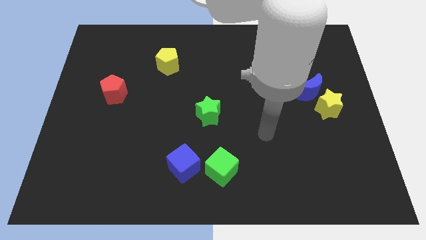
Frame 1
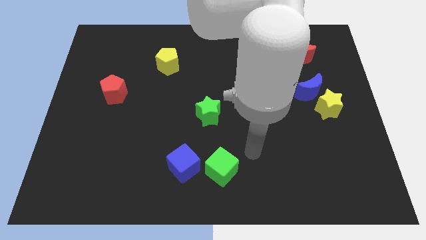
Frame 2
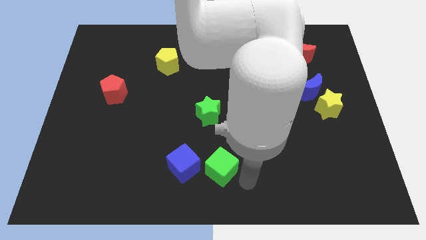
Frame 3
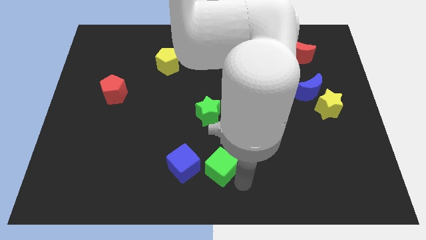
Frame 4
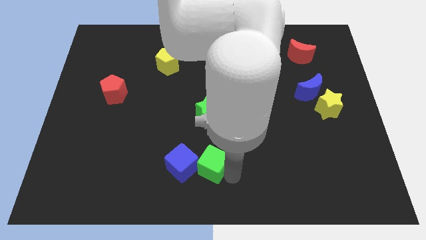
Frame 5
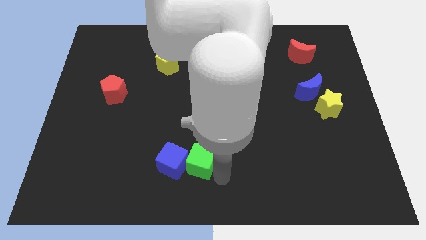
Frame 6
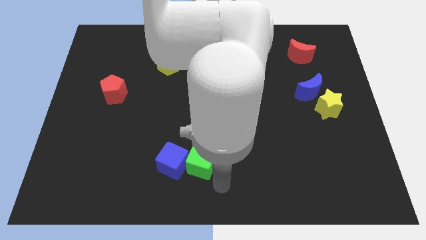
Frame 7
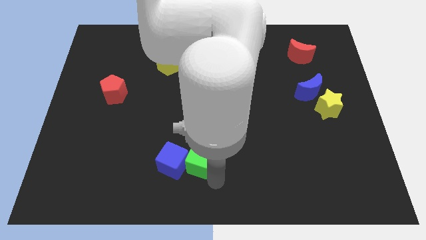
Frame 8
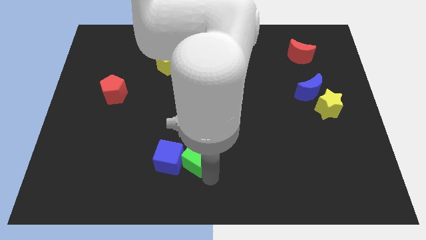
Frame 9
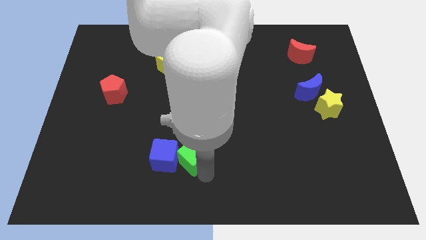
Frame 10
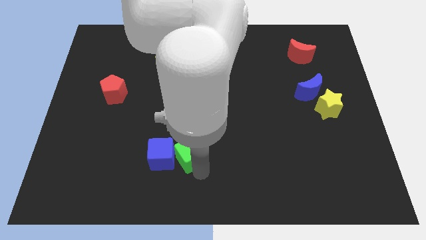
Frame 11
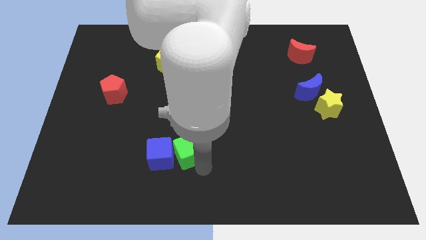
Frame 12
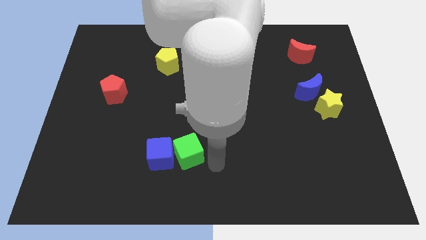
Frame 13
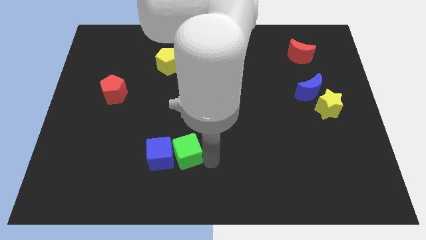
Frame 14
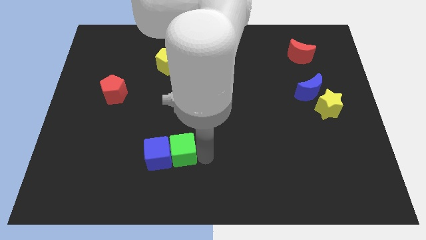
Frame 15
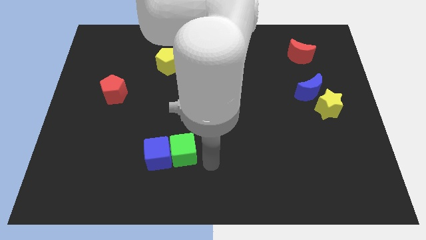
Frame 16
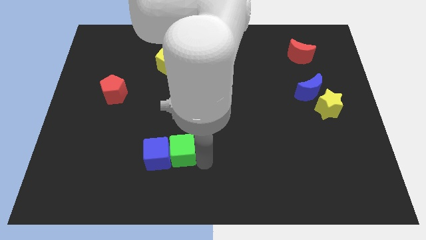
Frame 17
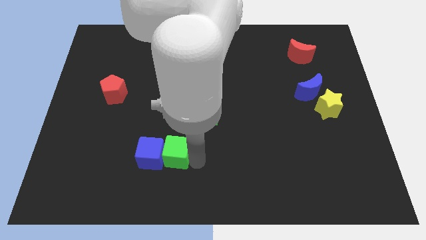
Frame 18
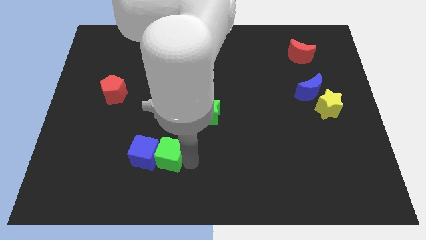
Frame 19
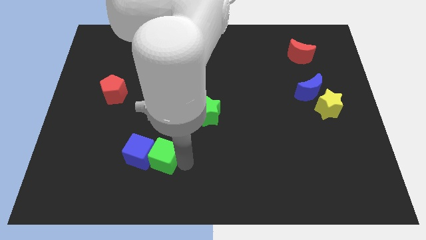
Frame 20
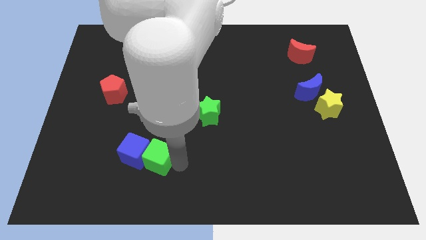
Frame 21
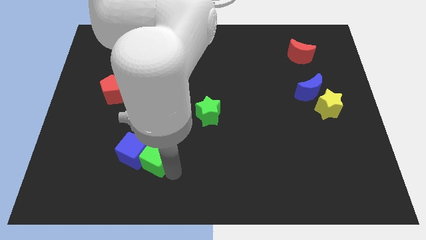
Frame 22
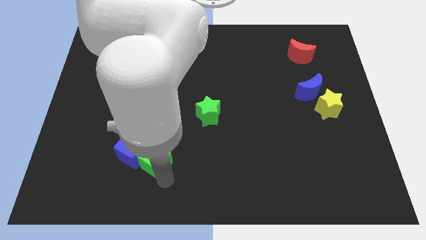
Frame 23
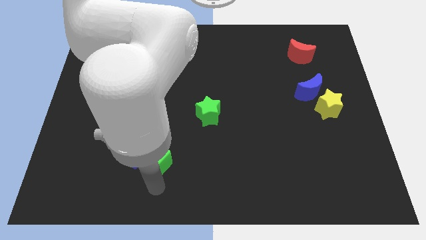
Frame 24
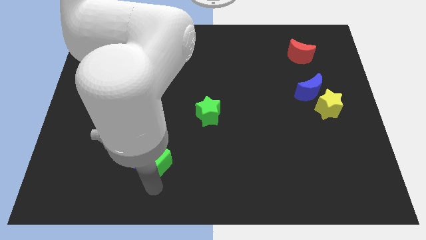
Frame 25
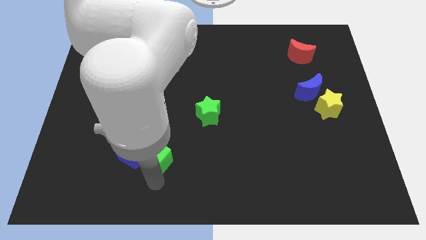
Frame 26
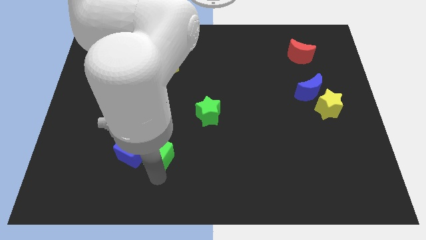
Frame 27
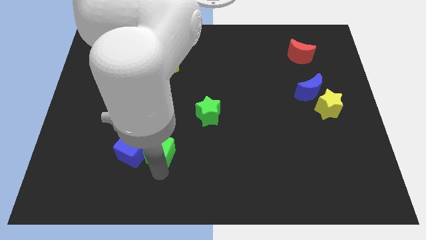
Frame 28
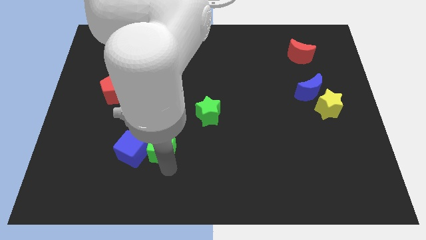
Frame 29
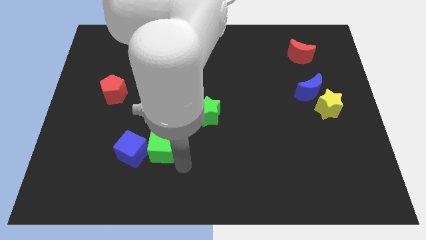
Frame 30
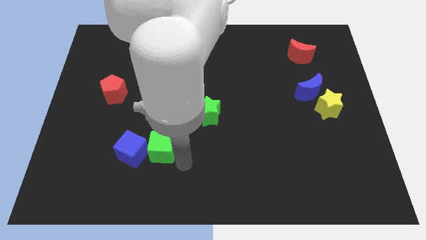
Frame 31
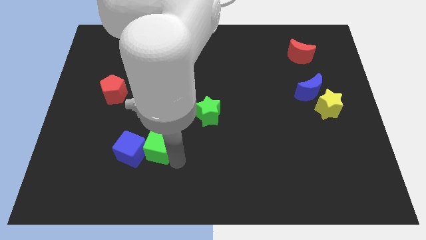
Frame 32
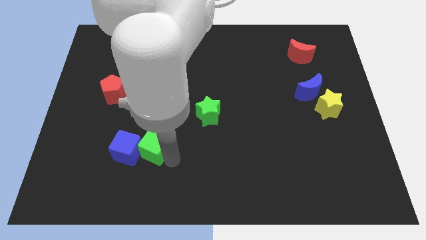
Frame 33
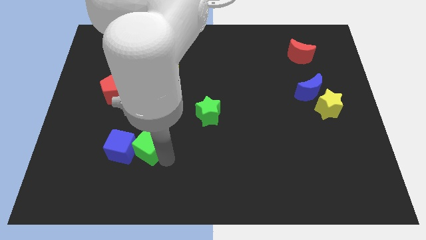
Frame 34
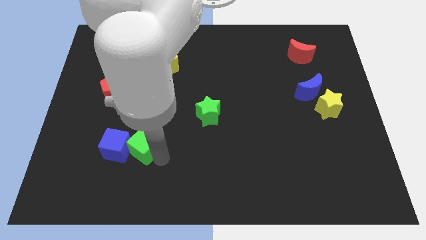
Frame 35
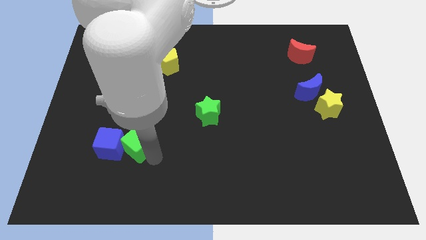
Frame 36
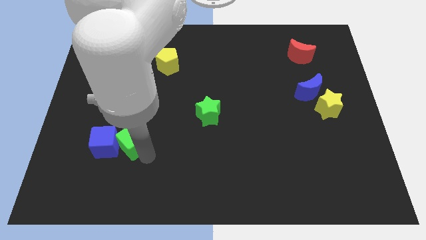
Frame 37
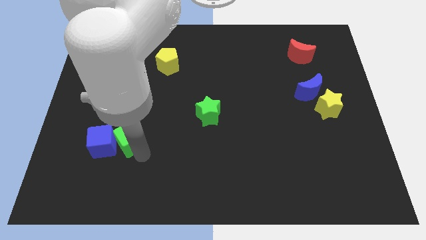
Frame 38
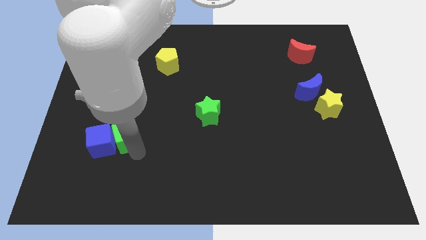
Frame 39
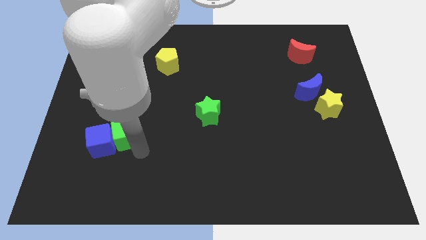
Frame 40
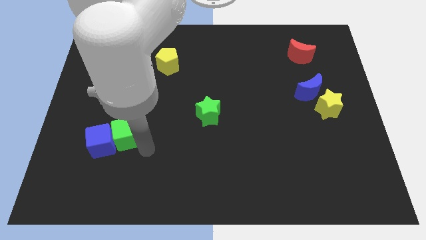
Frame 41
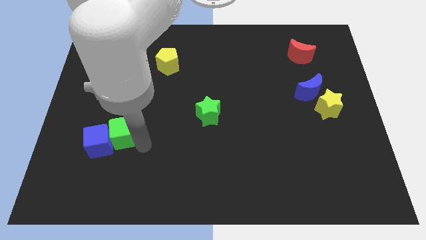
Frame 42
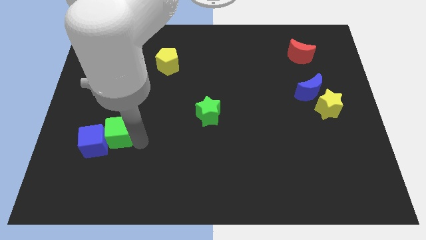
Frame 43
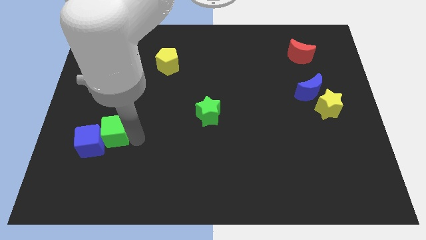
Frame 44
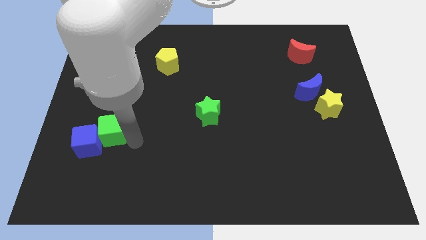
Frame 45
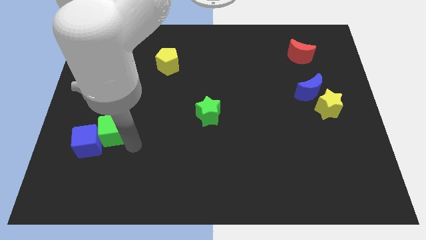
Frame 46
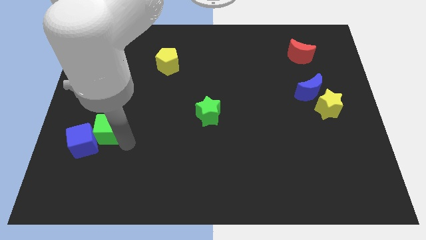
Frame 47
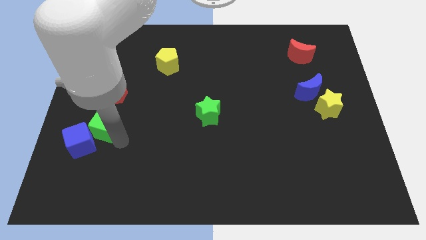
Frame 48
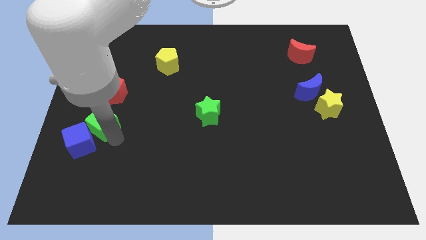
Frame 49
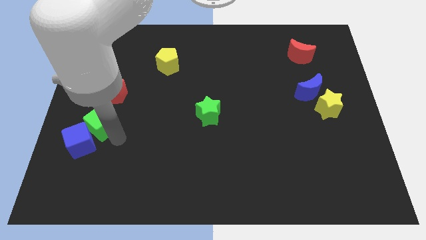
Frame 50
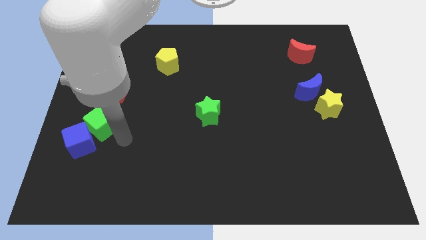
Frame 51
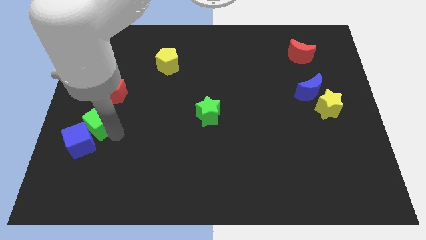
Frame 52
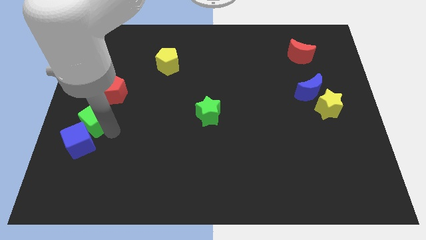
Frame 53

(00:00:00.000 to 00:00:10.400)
push the green cube to the center left

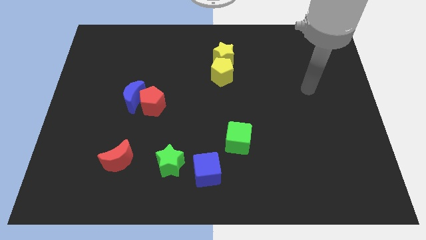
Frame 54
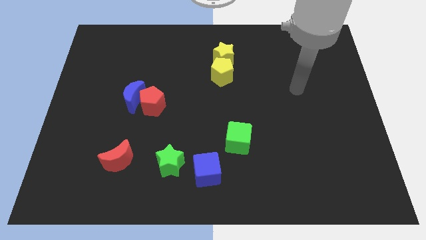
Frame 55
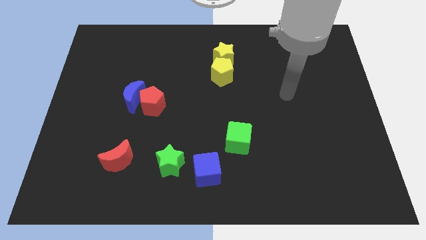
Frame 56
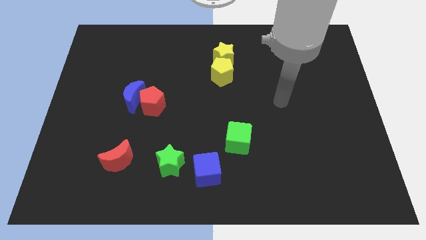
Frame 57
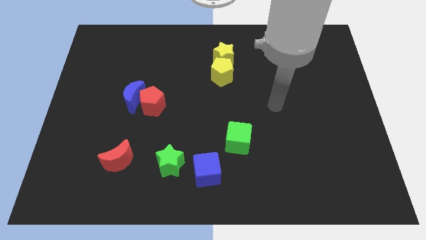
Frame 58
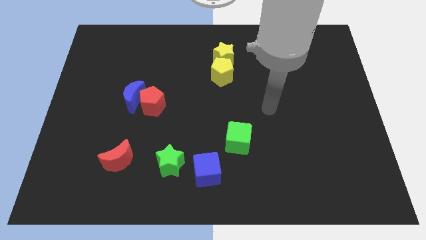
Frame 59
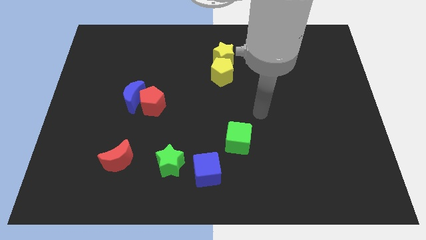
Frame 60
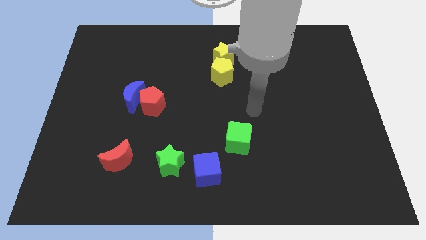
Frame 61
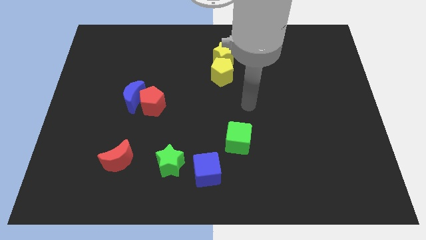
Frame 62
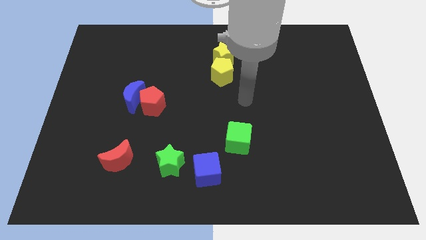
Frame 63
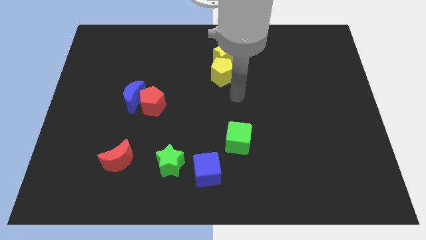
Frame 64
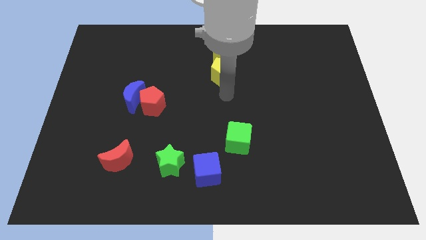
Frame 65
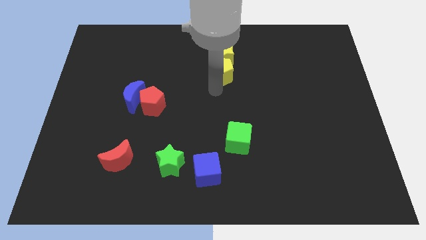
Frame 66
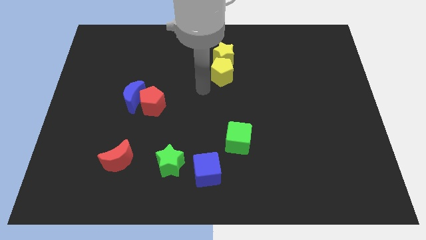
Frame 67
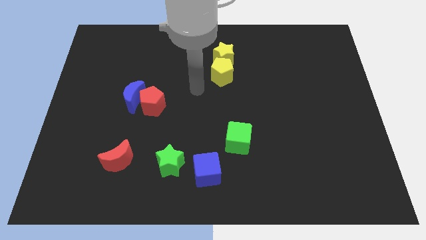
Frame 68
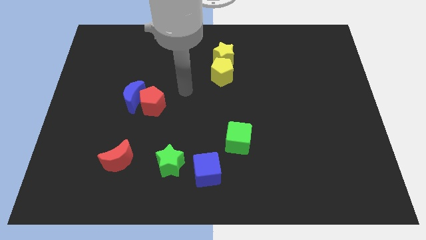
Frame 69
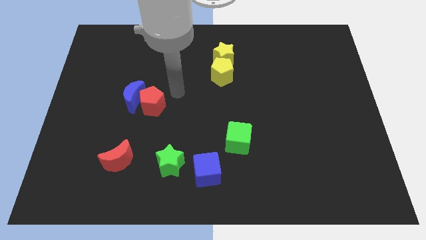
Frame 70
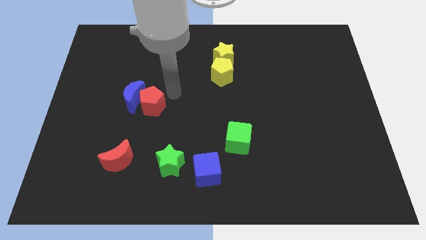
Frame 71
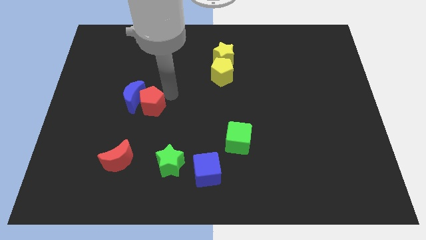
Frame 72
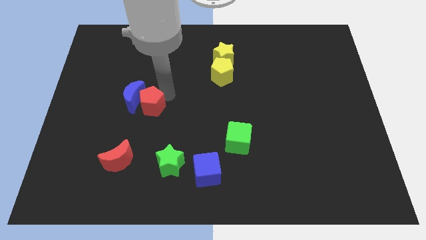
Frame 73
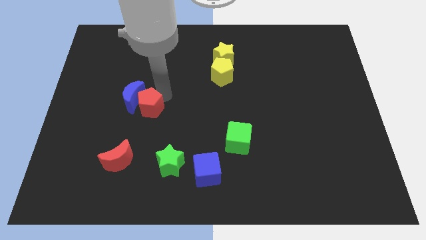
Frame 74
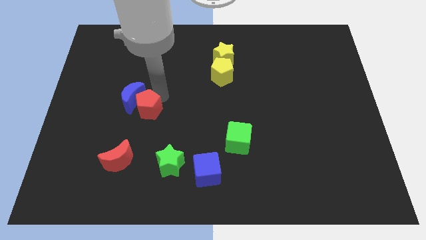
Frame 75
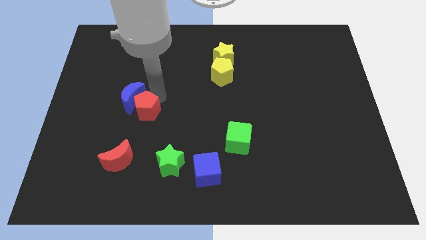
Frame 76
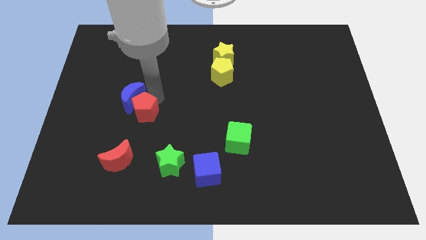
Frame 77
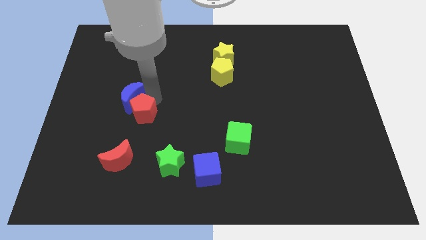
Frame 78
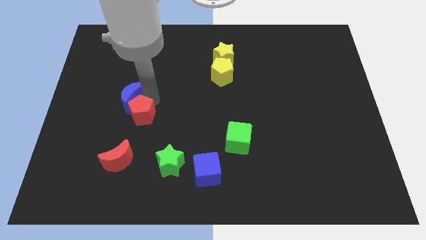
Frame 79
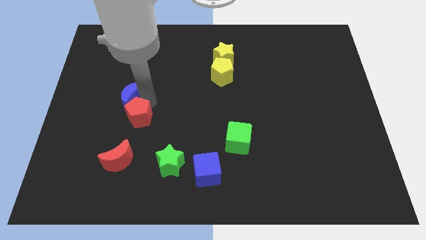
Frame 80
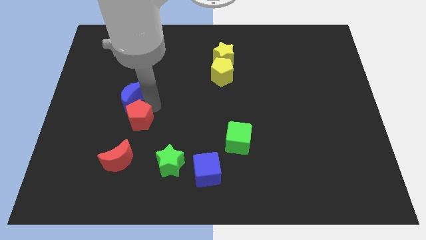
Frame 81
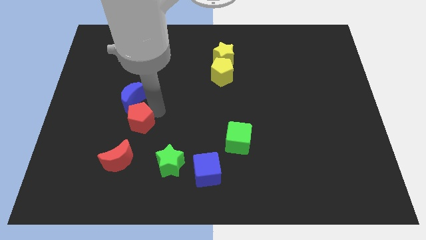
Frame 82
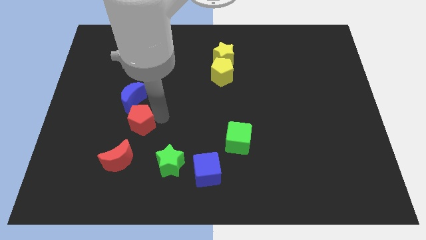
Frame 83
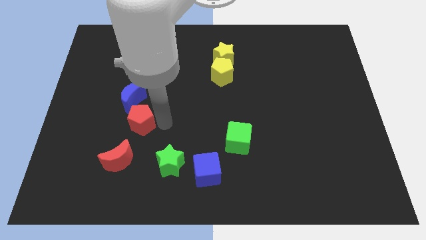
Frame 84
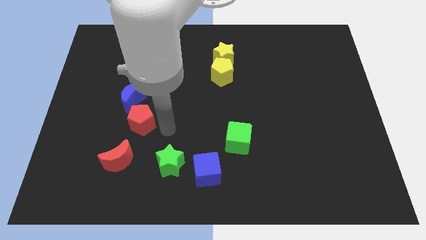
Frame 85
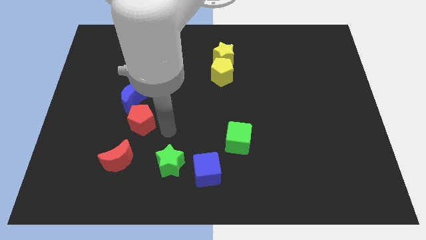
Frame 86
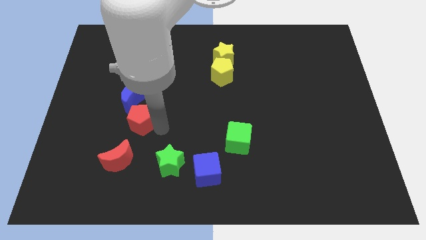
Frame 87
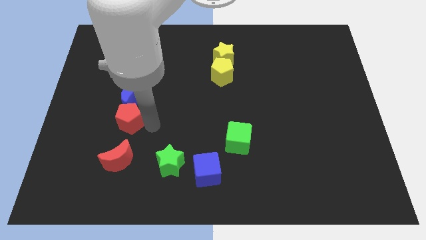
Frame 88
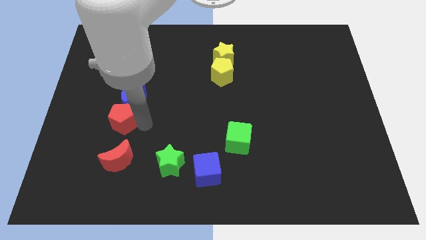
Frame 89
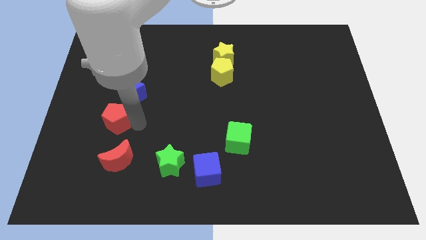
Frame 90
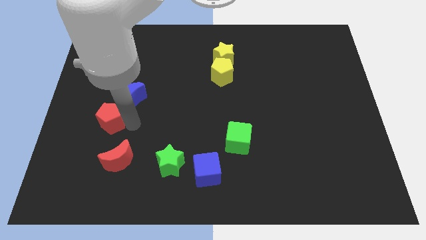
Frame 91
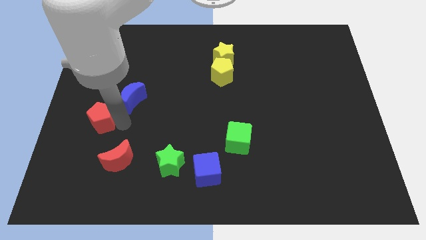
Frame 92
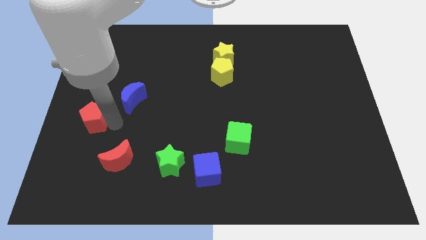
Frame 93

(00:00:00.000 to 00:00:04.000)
push the red pentagon to the left side of the board
